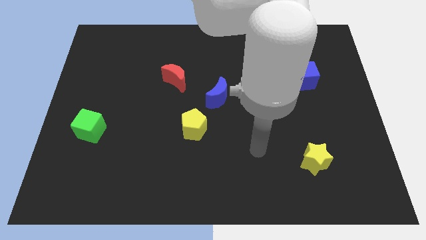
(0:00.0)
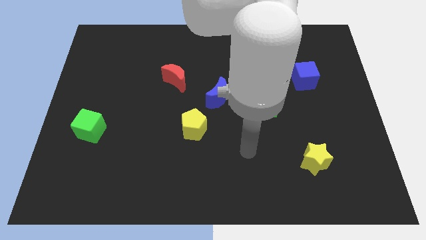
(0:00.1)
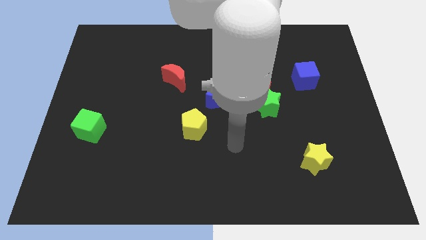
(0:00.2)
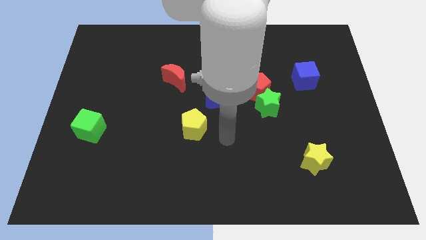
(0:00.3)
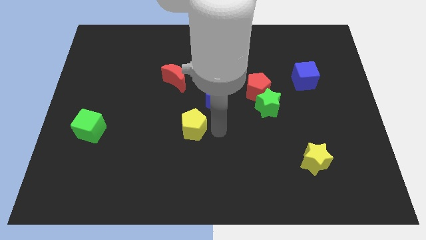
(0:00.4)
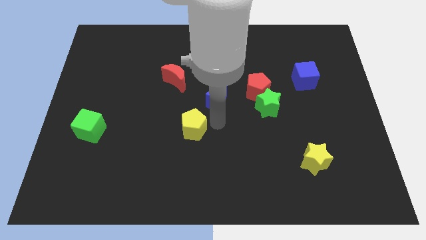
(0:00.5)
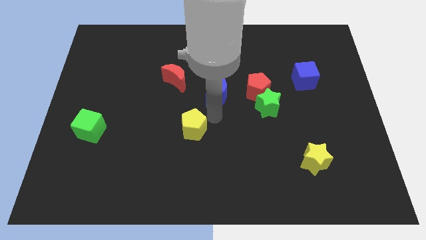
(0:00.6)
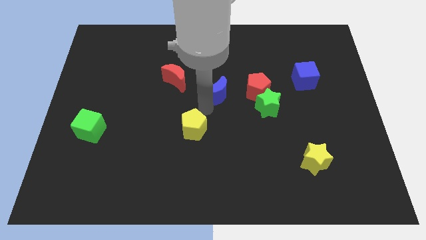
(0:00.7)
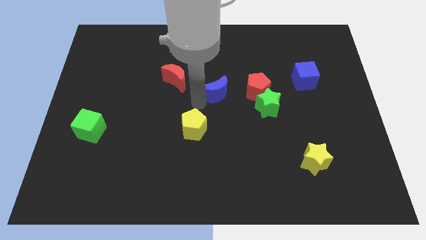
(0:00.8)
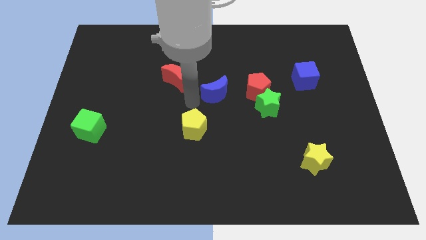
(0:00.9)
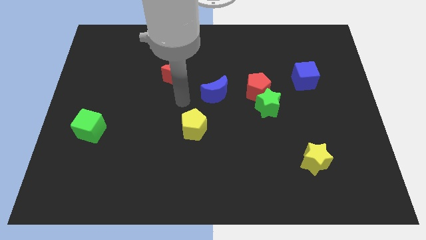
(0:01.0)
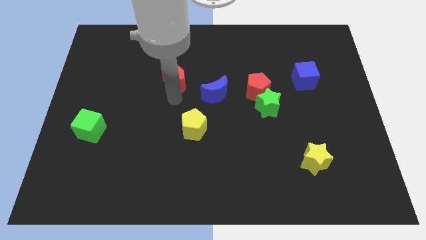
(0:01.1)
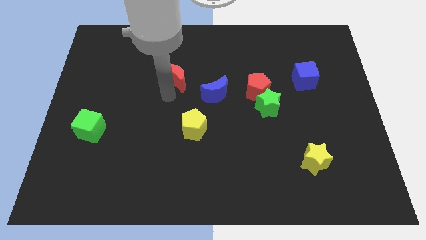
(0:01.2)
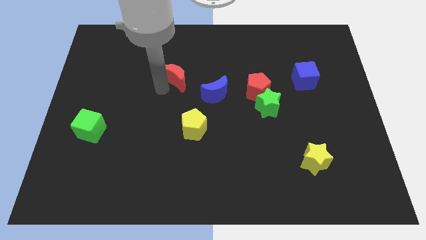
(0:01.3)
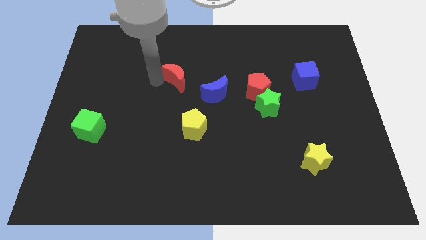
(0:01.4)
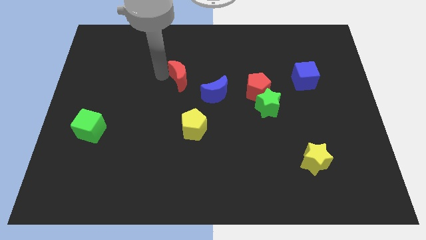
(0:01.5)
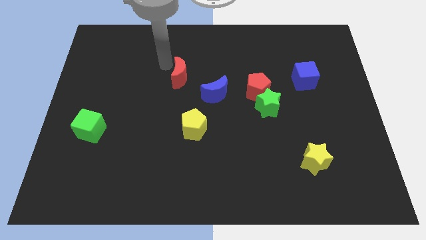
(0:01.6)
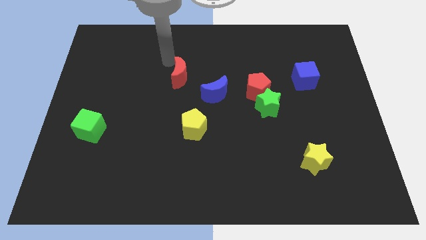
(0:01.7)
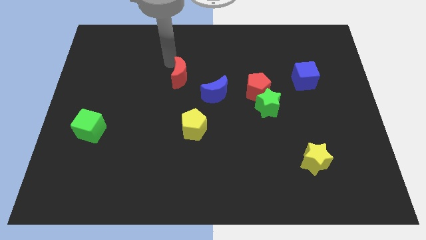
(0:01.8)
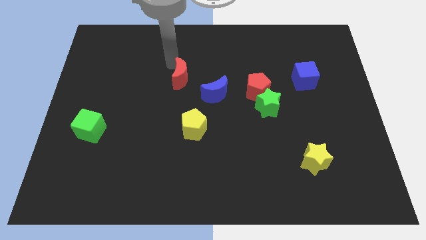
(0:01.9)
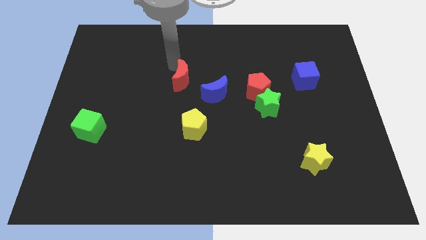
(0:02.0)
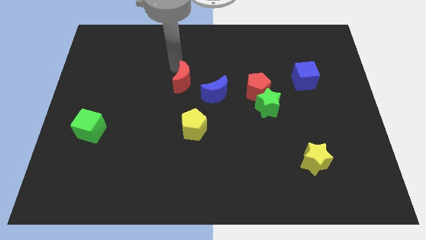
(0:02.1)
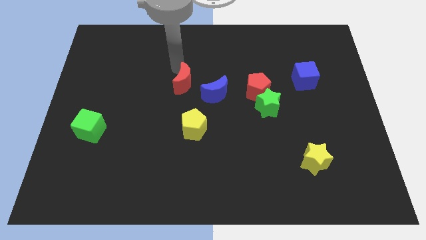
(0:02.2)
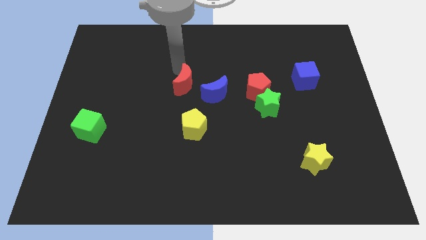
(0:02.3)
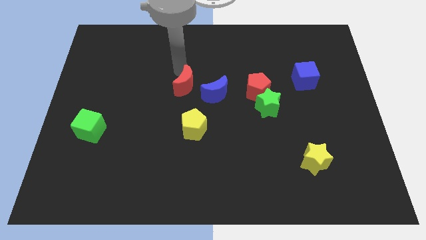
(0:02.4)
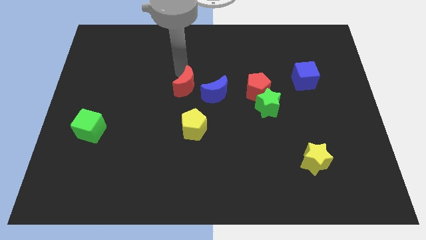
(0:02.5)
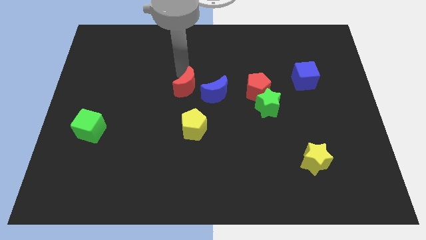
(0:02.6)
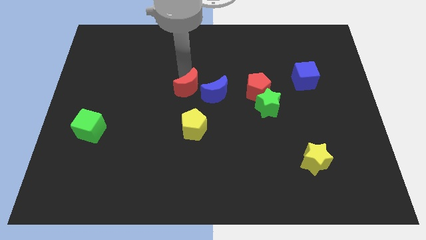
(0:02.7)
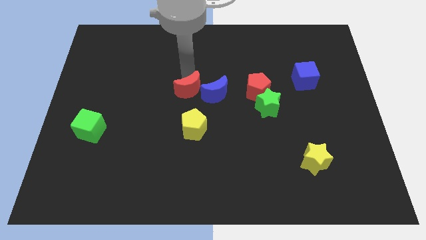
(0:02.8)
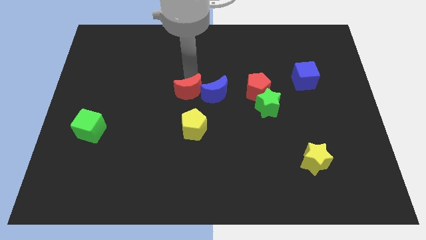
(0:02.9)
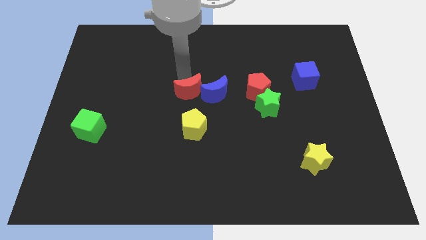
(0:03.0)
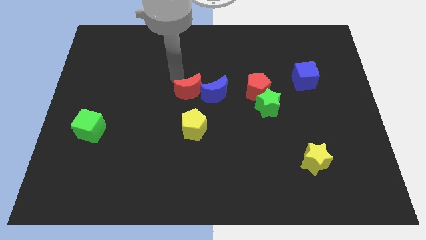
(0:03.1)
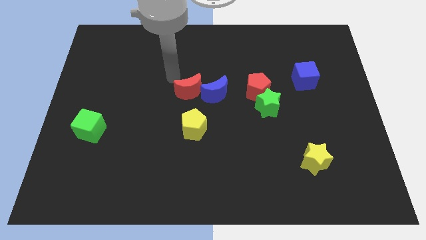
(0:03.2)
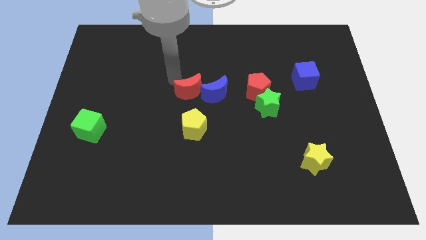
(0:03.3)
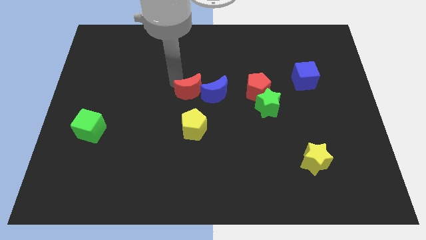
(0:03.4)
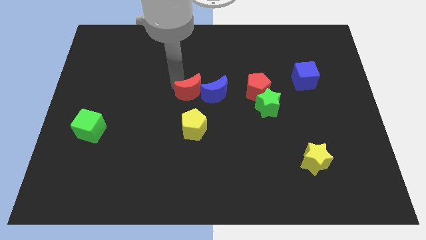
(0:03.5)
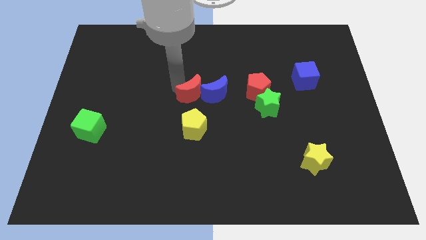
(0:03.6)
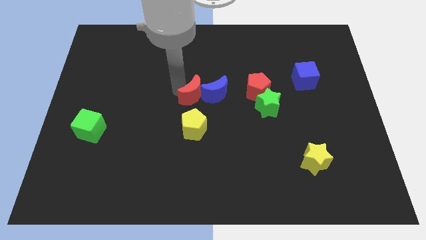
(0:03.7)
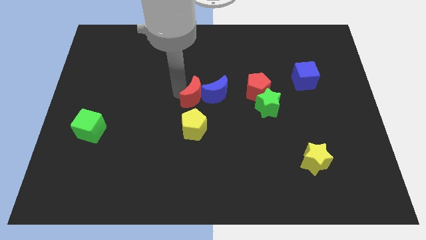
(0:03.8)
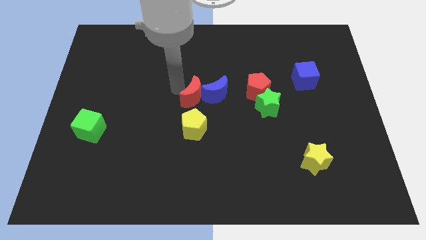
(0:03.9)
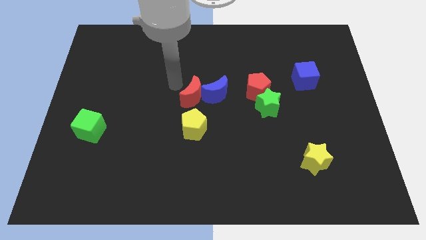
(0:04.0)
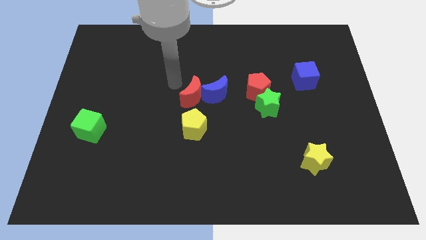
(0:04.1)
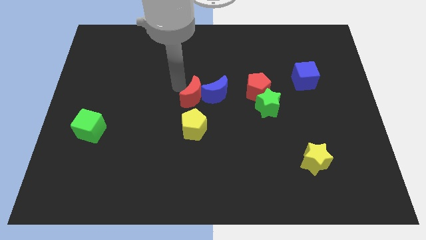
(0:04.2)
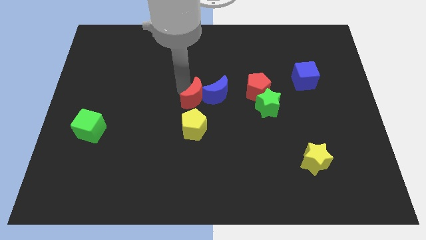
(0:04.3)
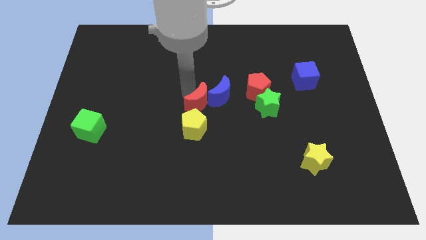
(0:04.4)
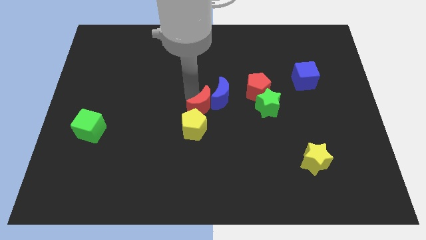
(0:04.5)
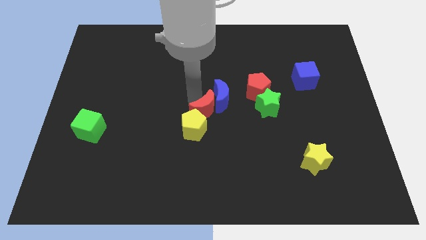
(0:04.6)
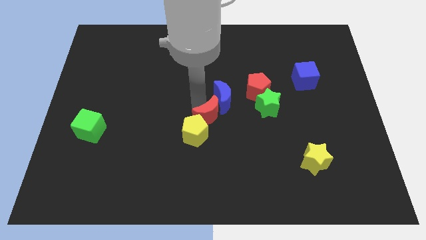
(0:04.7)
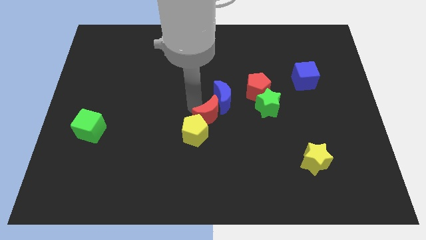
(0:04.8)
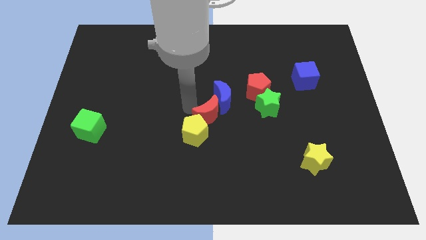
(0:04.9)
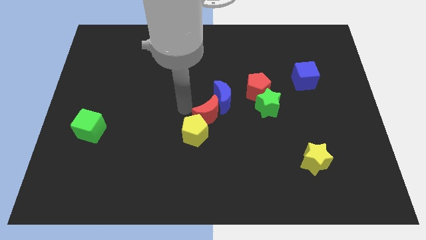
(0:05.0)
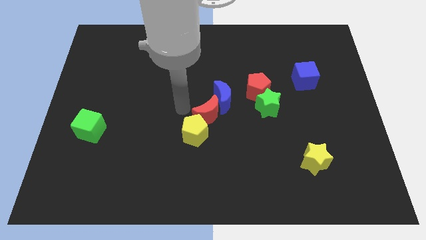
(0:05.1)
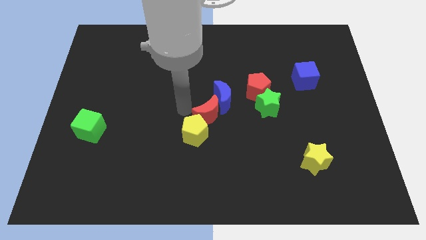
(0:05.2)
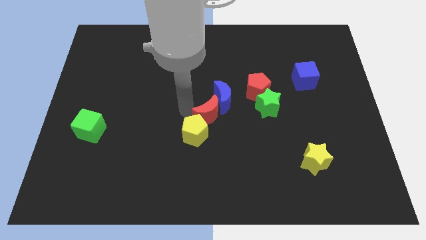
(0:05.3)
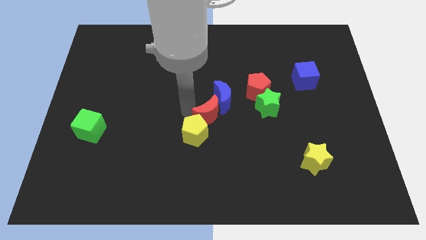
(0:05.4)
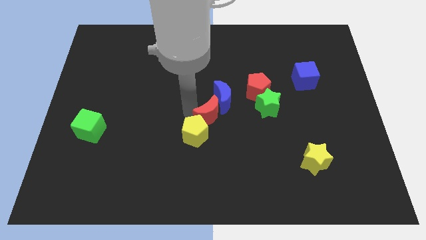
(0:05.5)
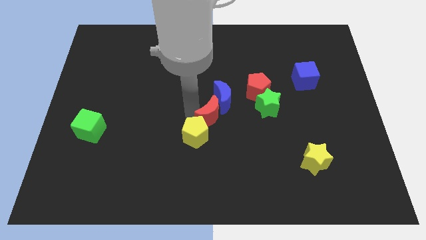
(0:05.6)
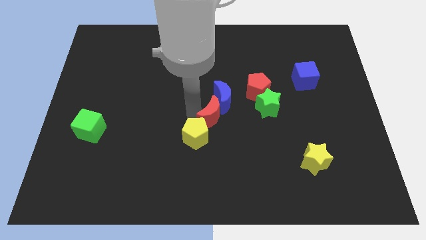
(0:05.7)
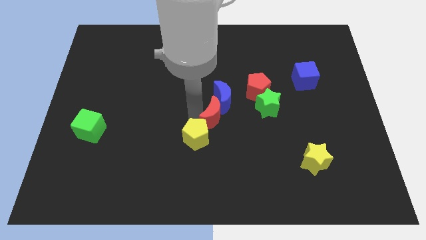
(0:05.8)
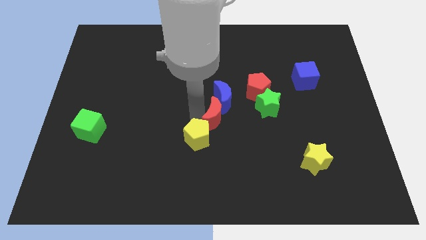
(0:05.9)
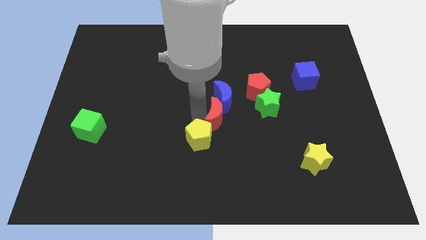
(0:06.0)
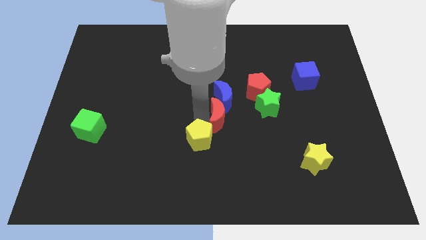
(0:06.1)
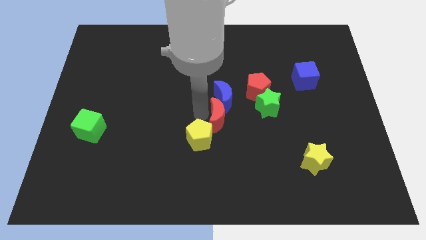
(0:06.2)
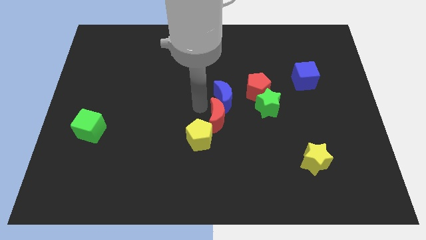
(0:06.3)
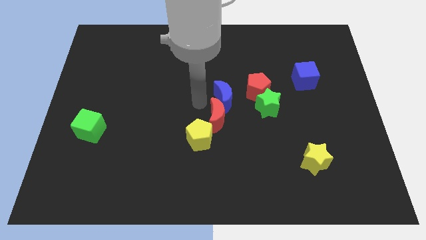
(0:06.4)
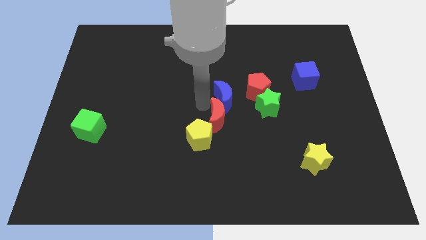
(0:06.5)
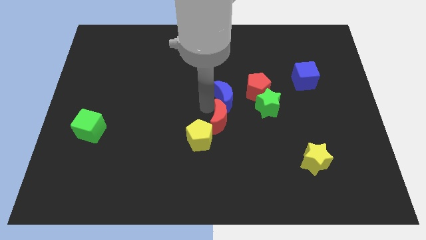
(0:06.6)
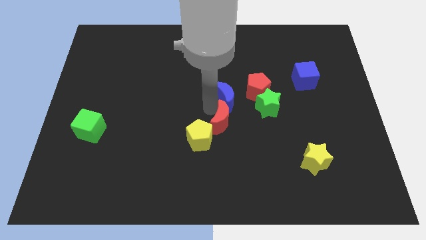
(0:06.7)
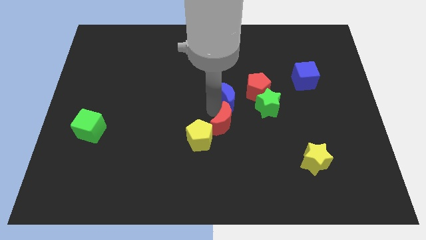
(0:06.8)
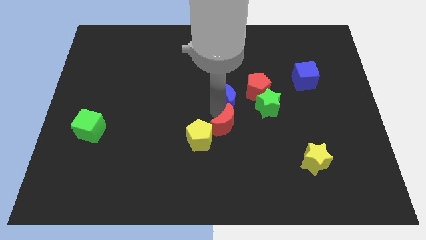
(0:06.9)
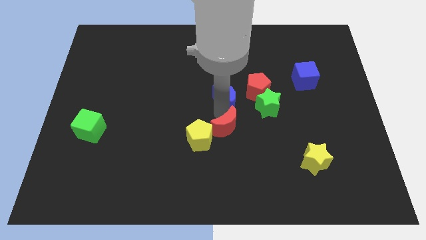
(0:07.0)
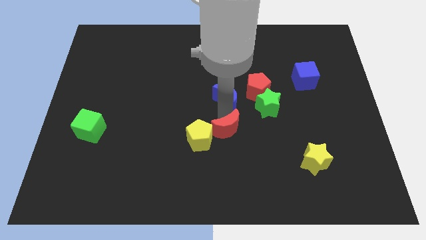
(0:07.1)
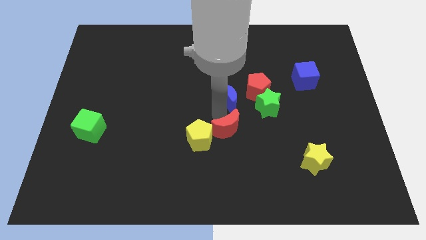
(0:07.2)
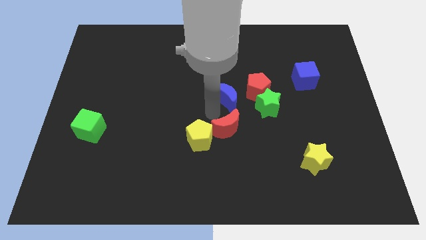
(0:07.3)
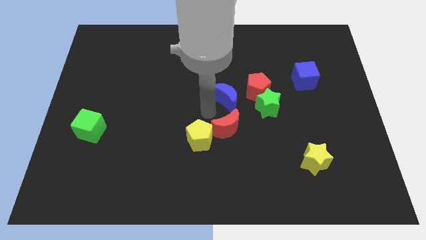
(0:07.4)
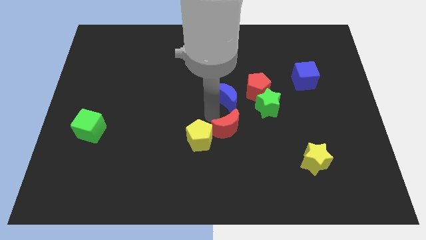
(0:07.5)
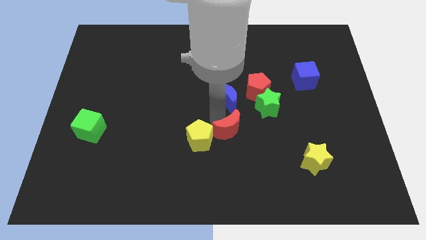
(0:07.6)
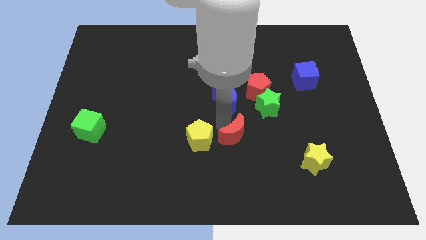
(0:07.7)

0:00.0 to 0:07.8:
slide the red moon down and then to the right
